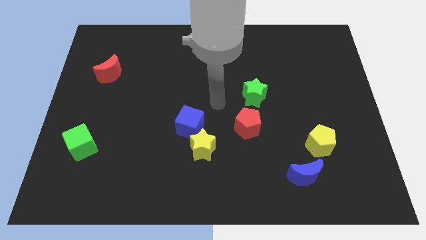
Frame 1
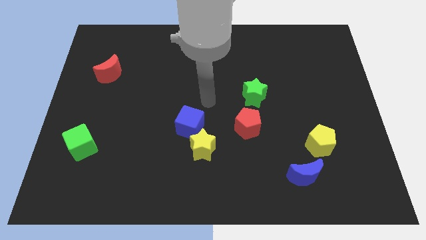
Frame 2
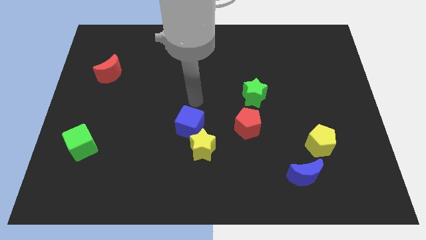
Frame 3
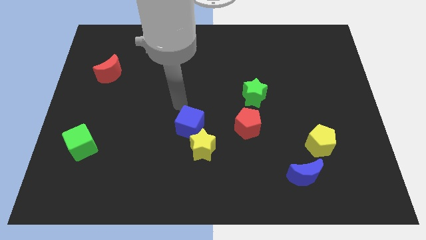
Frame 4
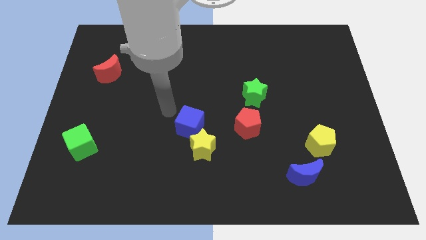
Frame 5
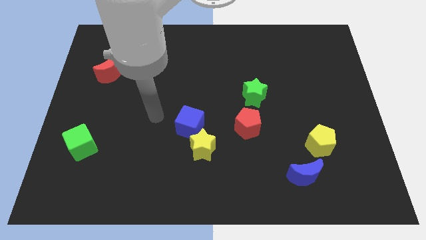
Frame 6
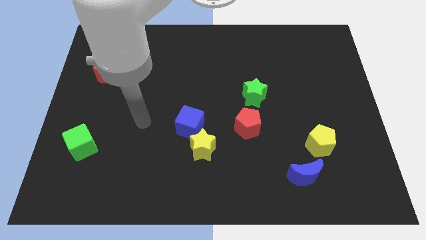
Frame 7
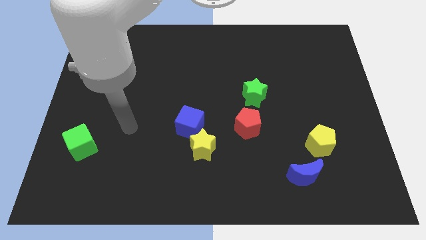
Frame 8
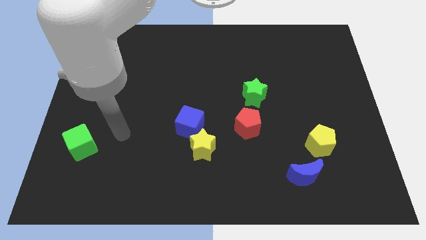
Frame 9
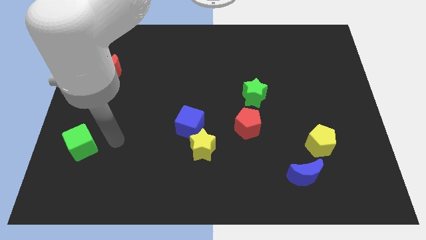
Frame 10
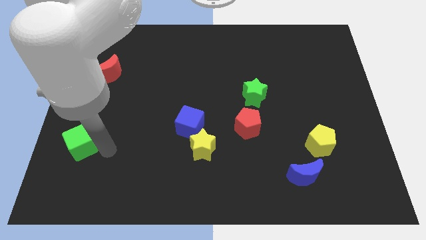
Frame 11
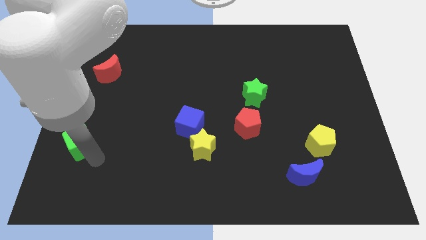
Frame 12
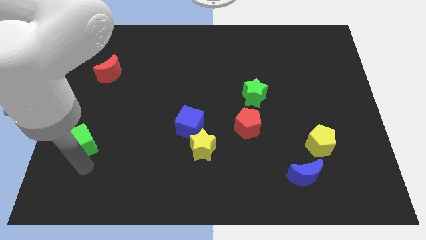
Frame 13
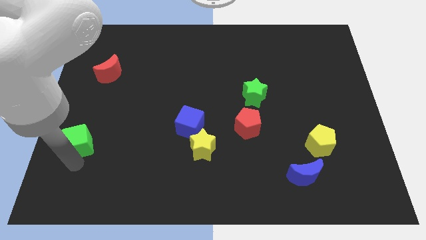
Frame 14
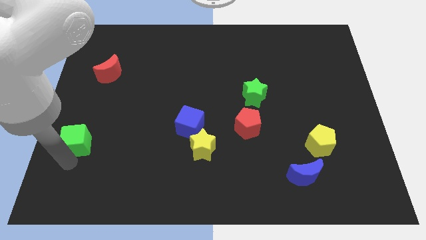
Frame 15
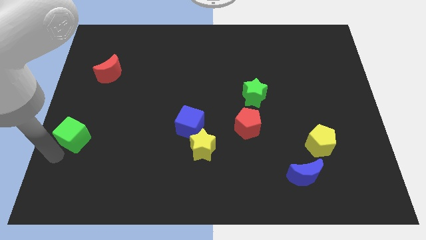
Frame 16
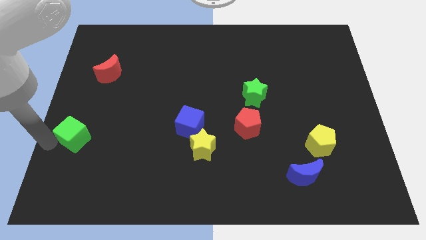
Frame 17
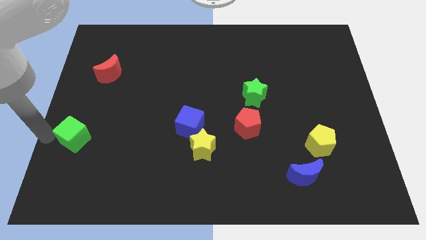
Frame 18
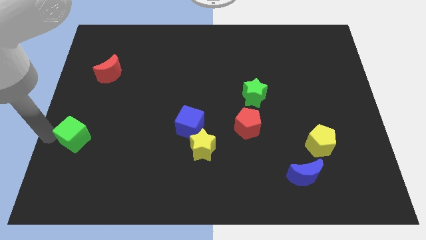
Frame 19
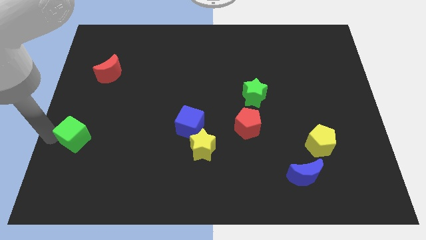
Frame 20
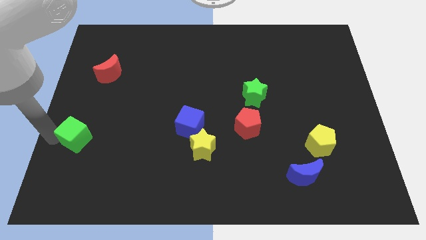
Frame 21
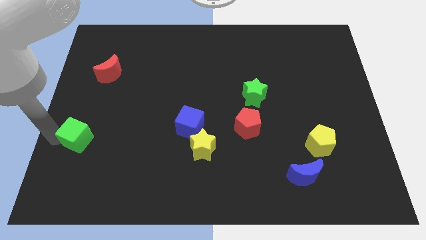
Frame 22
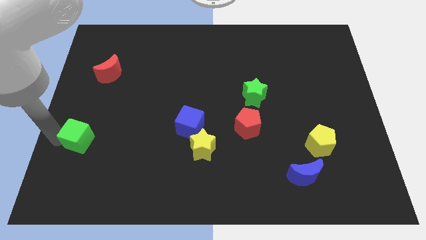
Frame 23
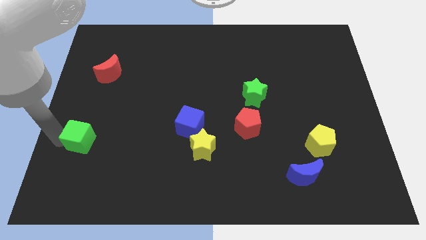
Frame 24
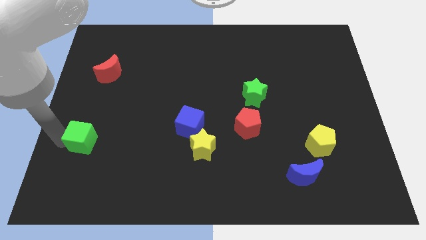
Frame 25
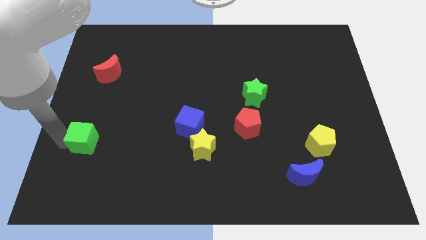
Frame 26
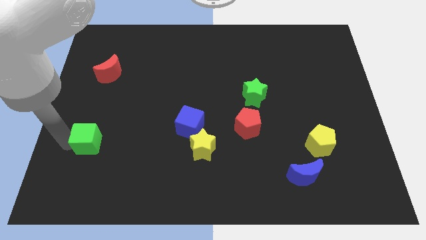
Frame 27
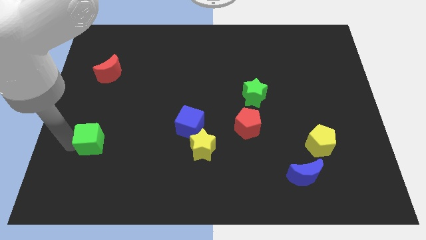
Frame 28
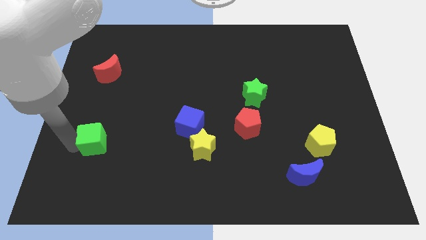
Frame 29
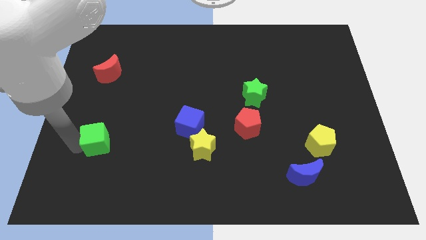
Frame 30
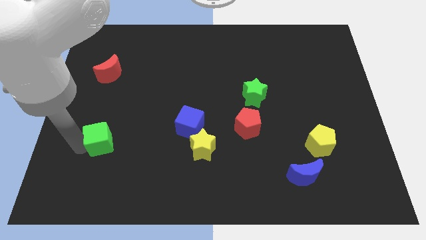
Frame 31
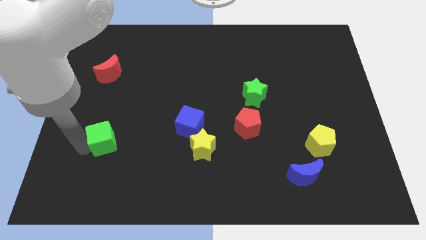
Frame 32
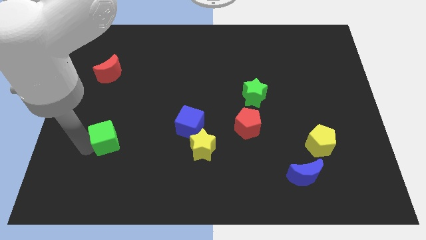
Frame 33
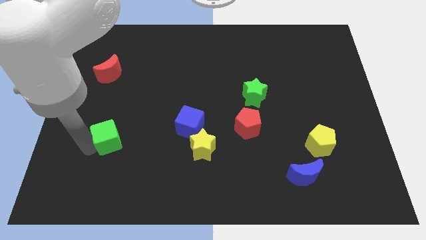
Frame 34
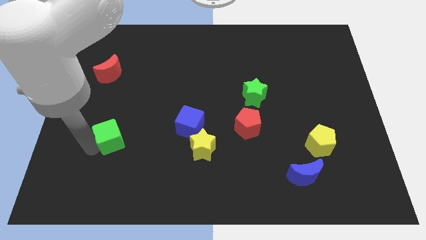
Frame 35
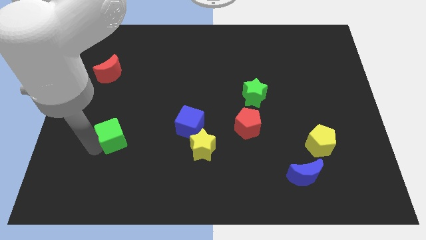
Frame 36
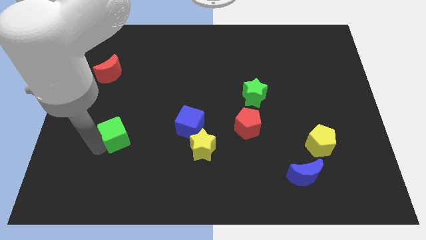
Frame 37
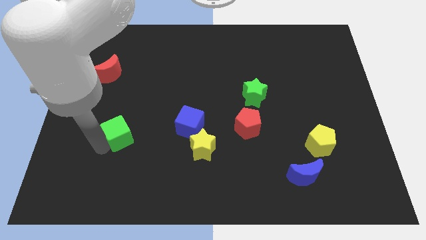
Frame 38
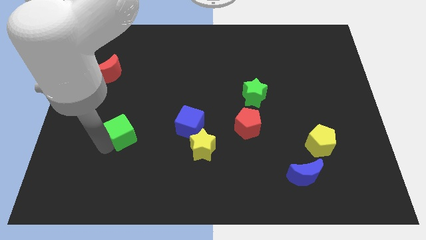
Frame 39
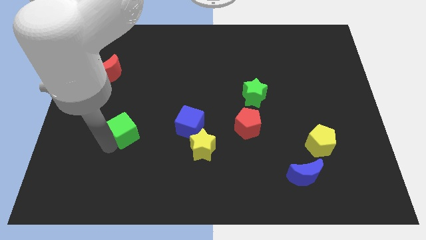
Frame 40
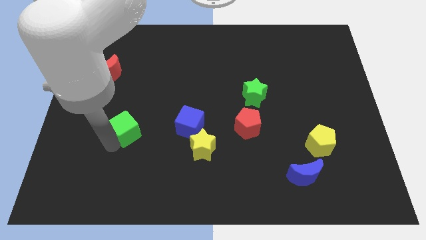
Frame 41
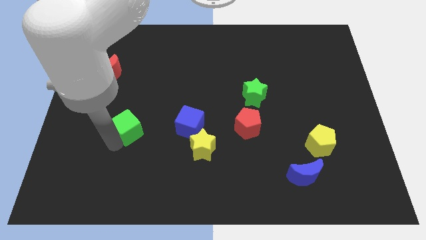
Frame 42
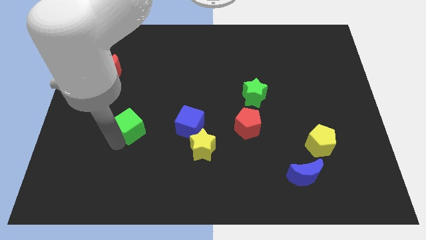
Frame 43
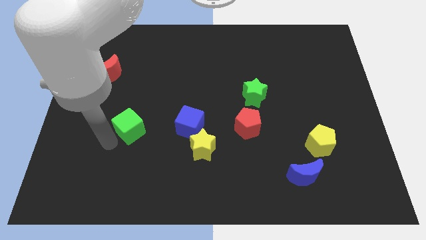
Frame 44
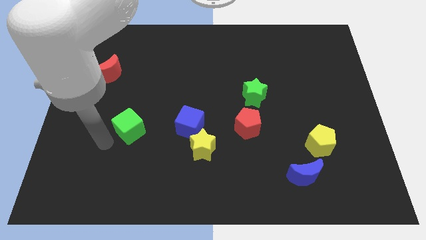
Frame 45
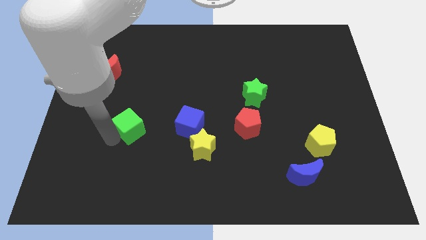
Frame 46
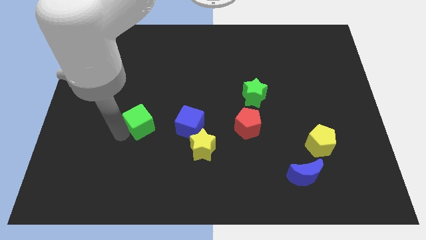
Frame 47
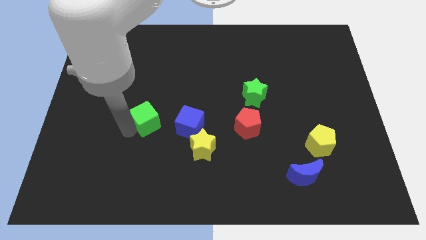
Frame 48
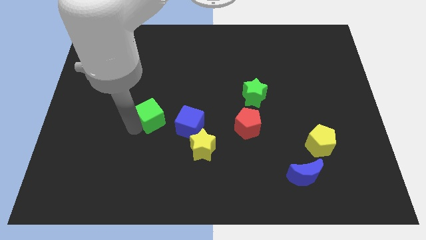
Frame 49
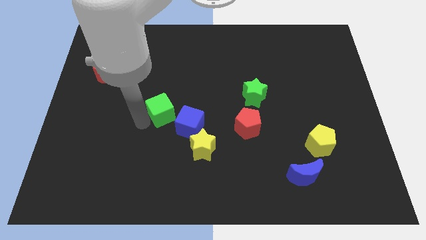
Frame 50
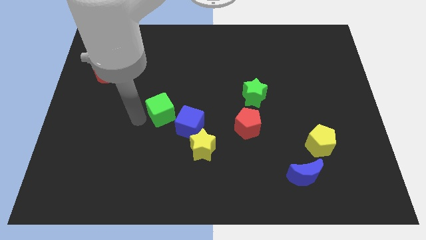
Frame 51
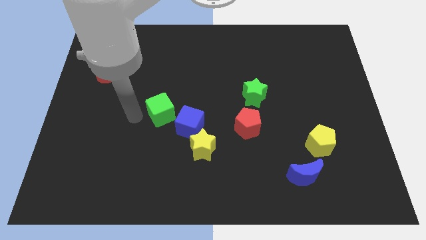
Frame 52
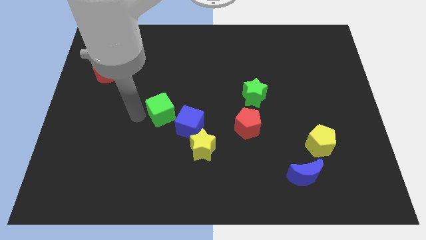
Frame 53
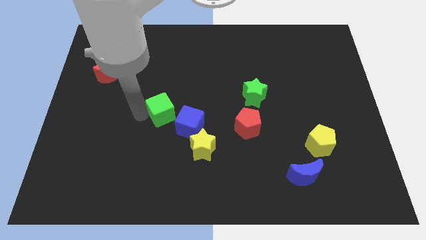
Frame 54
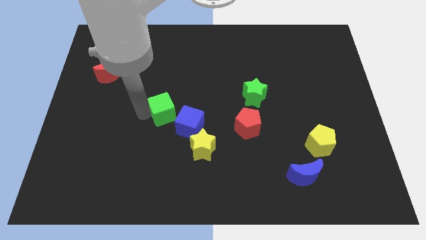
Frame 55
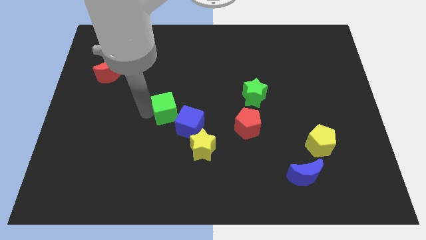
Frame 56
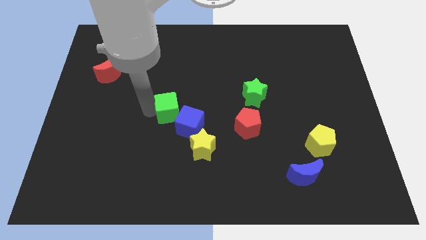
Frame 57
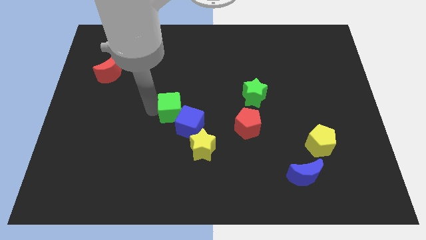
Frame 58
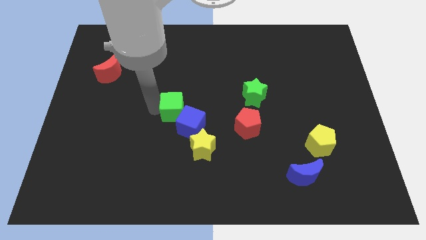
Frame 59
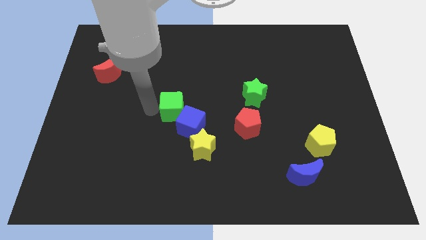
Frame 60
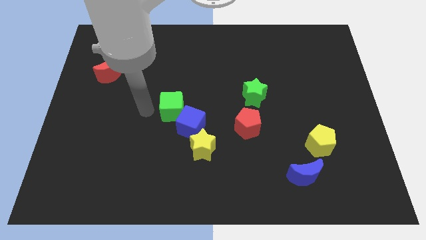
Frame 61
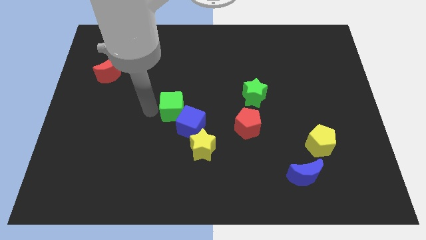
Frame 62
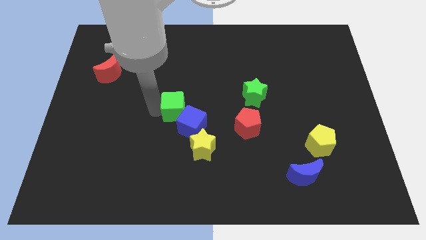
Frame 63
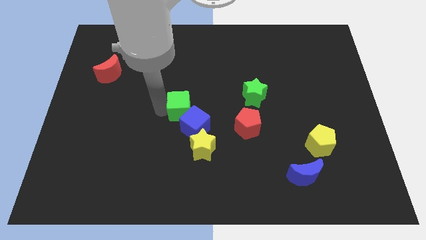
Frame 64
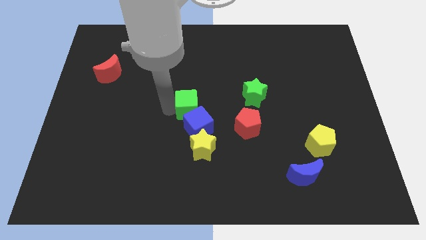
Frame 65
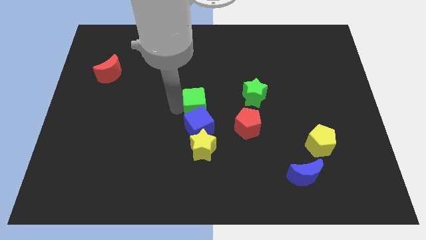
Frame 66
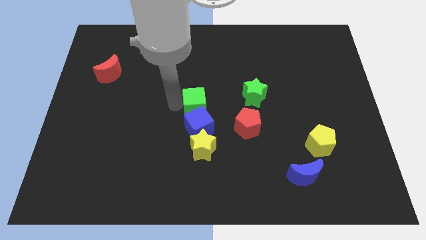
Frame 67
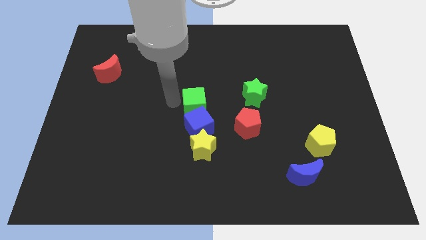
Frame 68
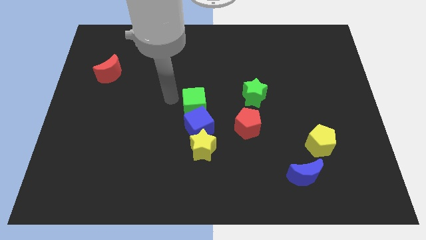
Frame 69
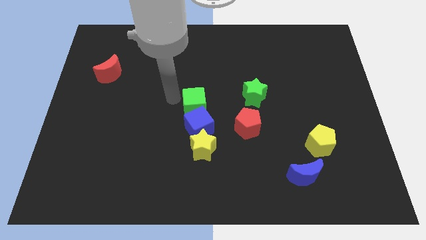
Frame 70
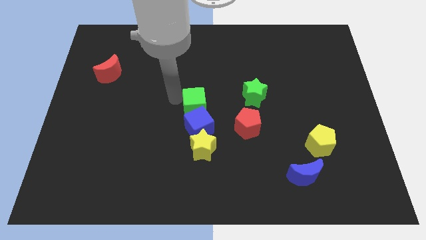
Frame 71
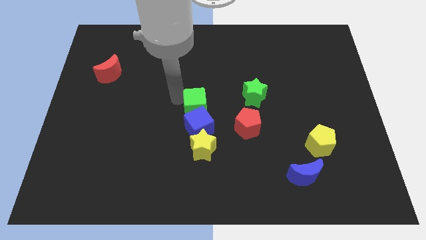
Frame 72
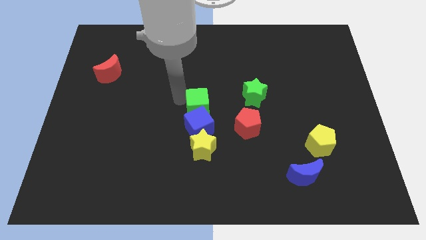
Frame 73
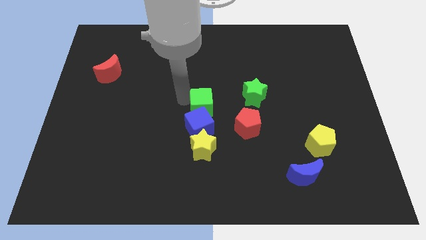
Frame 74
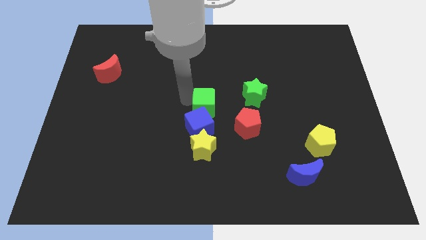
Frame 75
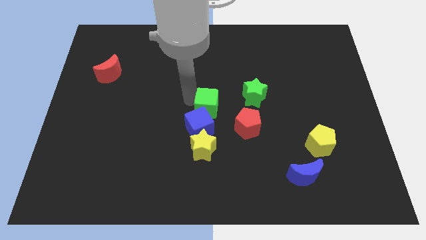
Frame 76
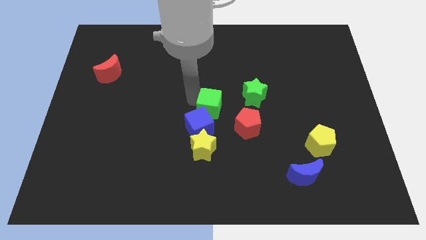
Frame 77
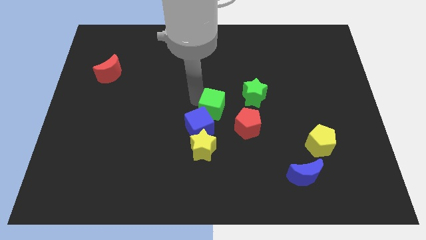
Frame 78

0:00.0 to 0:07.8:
push the green cube to the bottom left side of the green star
